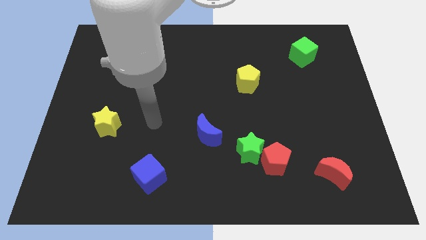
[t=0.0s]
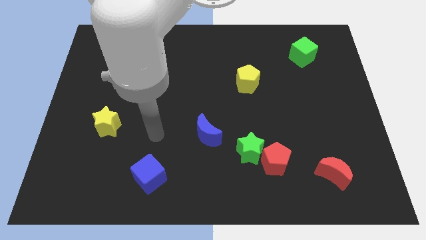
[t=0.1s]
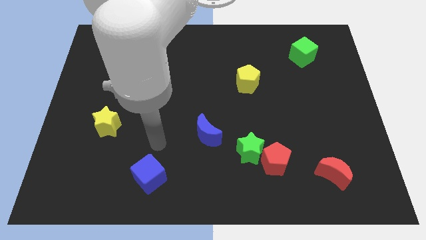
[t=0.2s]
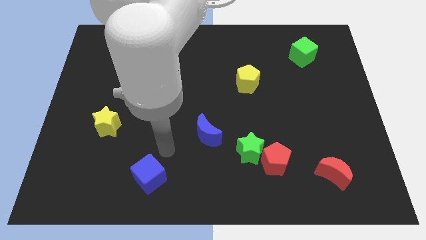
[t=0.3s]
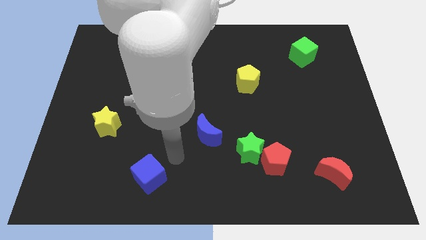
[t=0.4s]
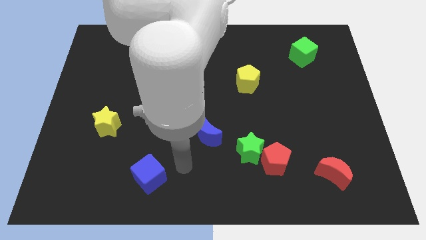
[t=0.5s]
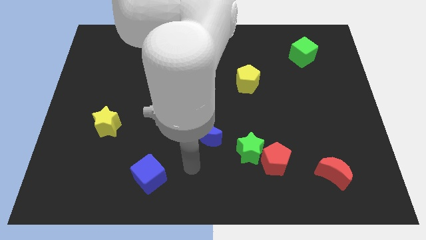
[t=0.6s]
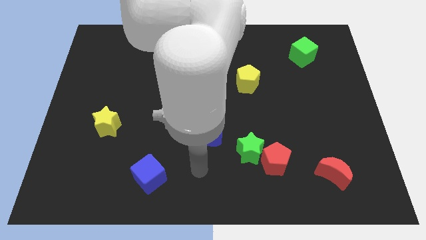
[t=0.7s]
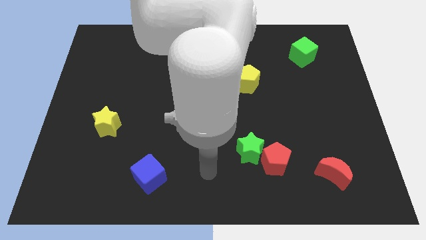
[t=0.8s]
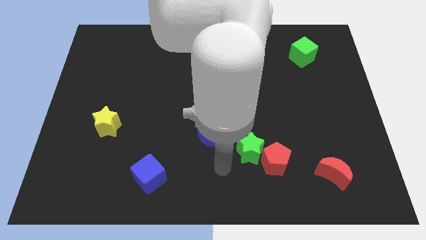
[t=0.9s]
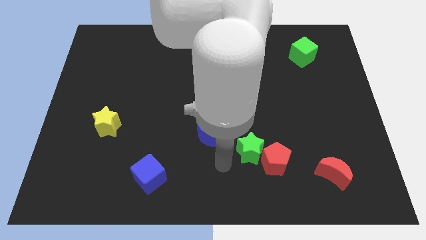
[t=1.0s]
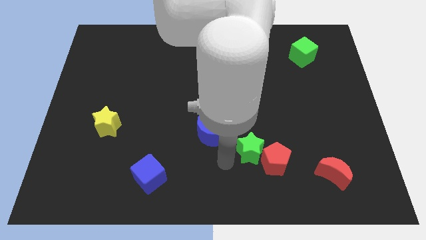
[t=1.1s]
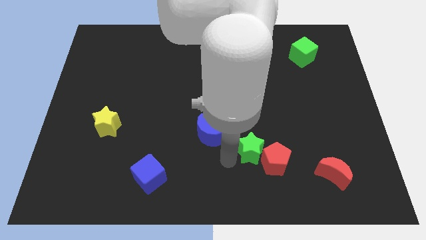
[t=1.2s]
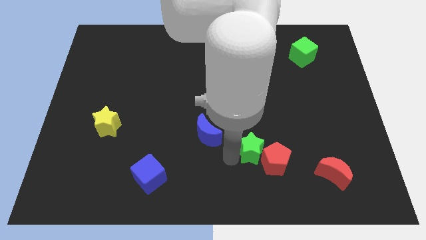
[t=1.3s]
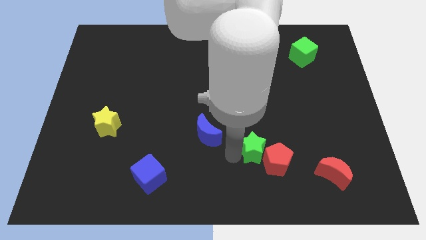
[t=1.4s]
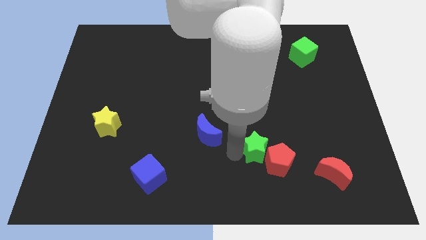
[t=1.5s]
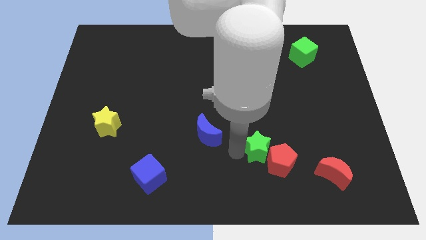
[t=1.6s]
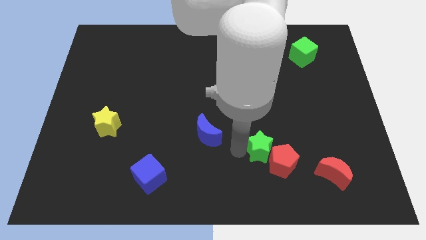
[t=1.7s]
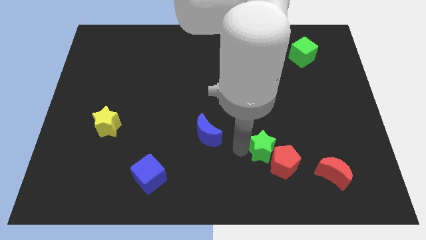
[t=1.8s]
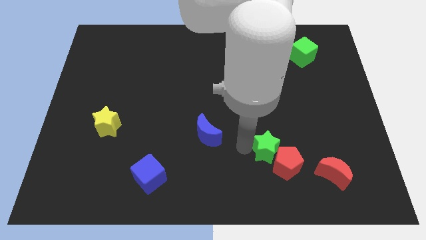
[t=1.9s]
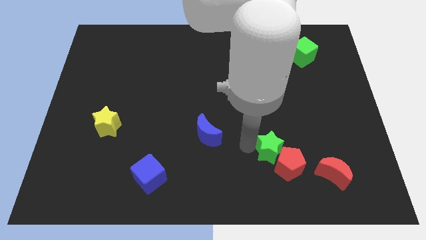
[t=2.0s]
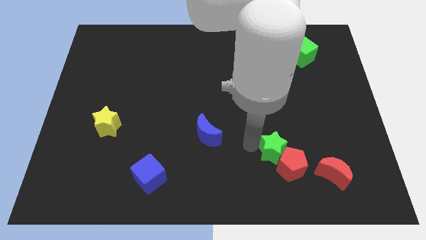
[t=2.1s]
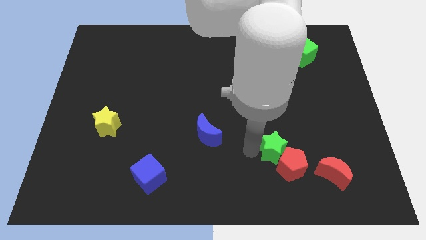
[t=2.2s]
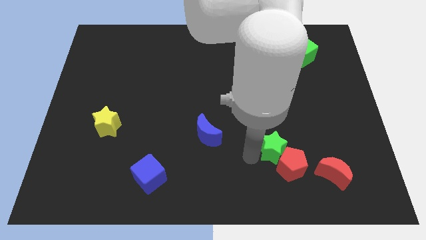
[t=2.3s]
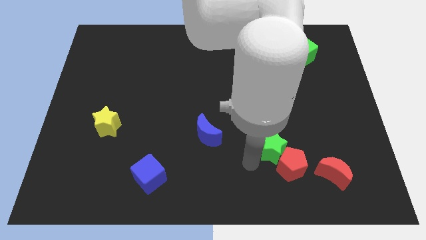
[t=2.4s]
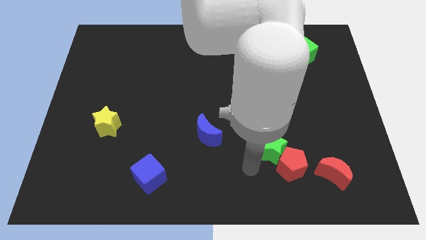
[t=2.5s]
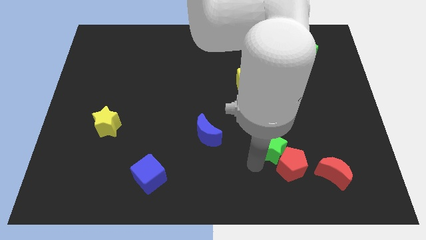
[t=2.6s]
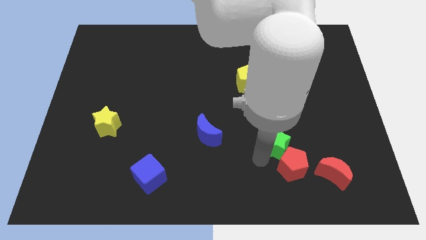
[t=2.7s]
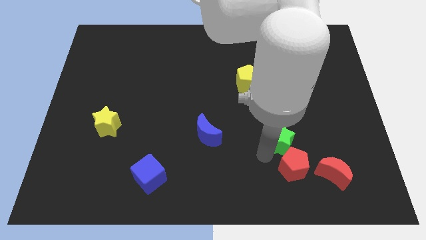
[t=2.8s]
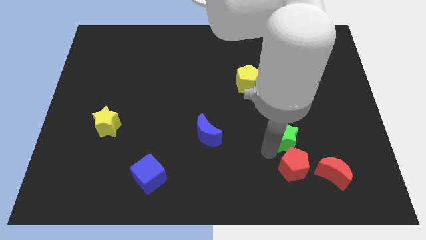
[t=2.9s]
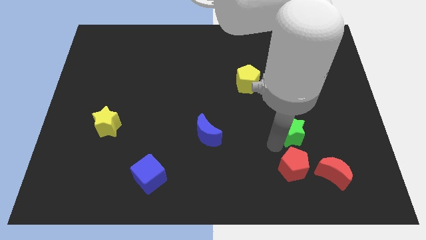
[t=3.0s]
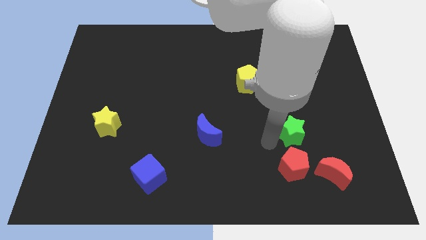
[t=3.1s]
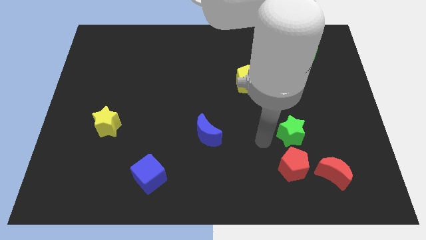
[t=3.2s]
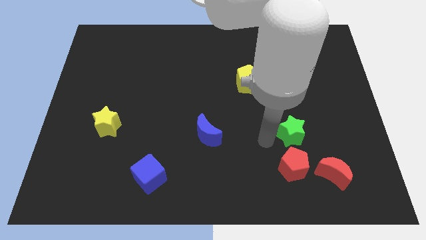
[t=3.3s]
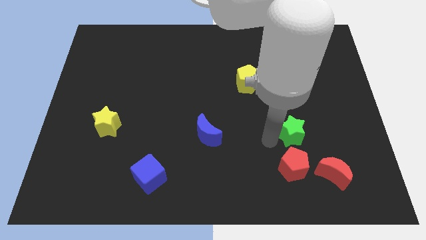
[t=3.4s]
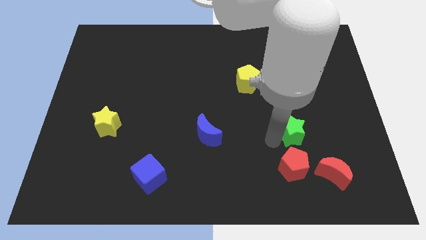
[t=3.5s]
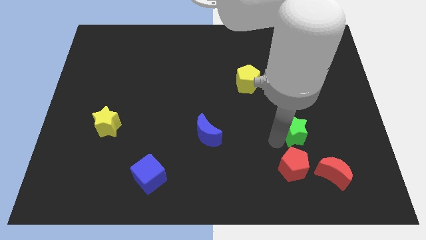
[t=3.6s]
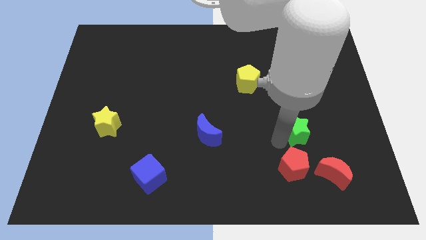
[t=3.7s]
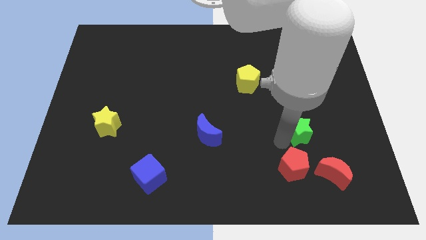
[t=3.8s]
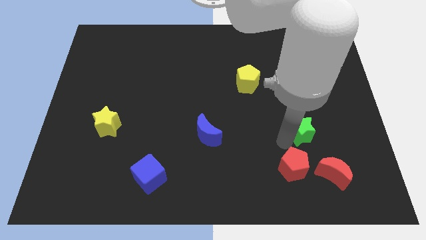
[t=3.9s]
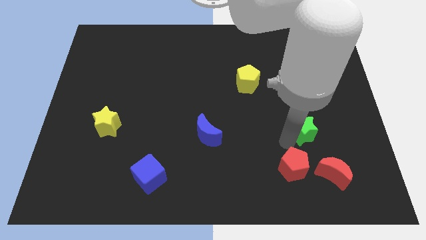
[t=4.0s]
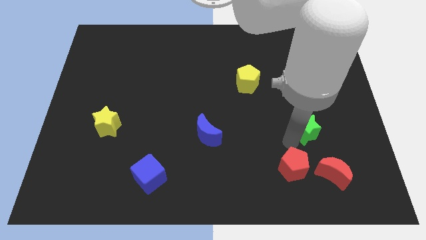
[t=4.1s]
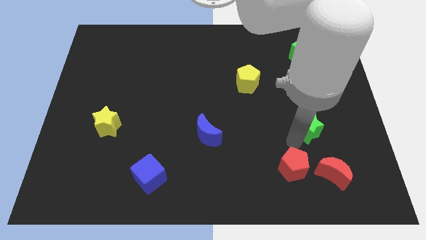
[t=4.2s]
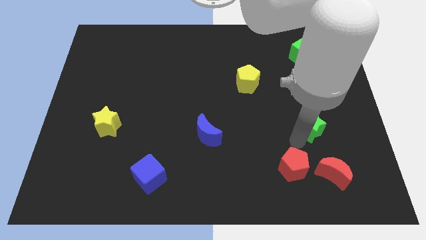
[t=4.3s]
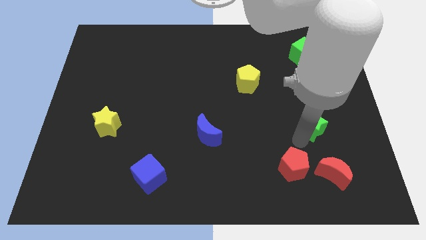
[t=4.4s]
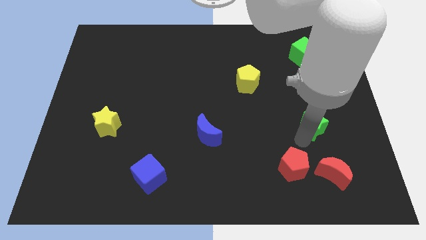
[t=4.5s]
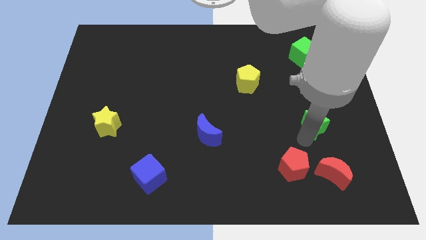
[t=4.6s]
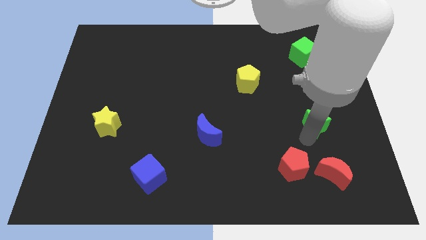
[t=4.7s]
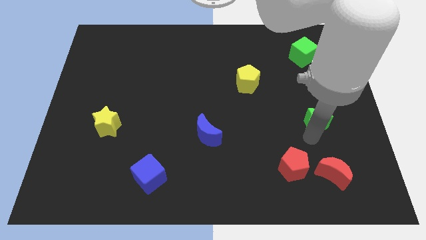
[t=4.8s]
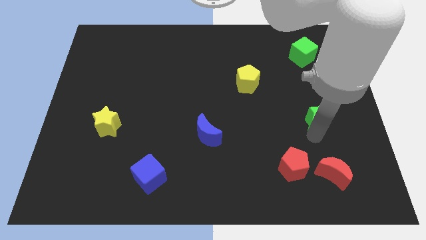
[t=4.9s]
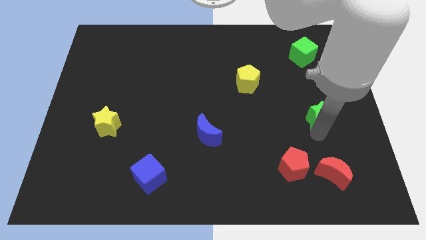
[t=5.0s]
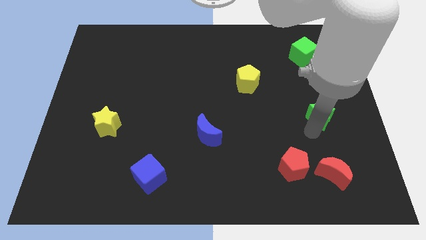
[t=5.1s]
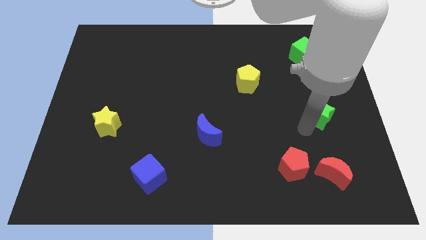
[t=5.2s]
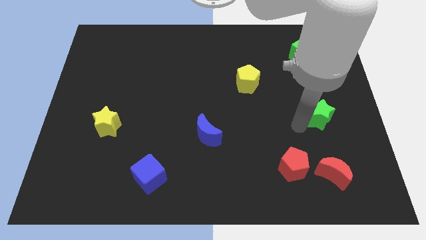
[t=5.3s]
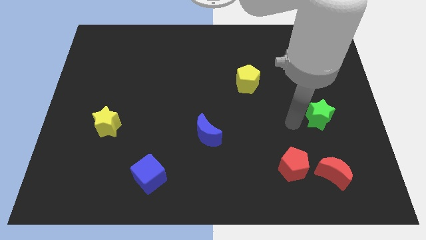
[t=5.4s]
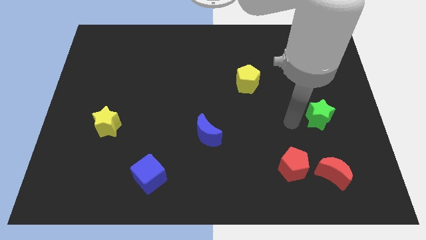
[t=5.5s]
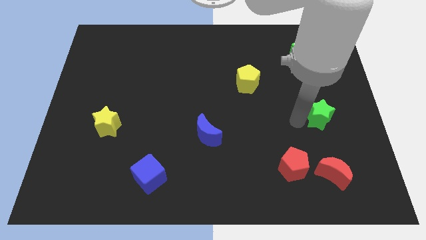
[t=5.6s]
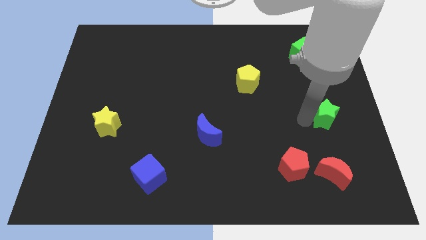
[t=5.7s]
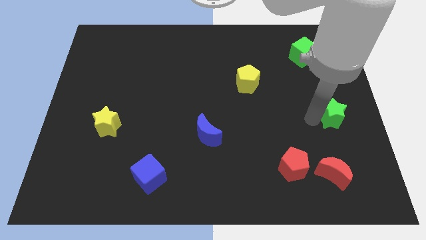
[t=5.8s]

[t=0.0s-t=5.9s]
move the green star to the right side of the board

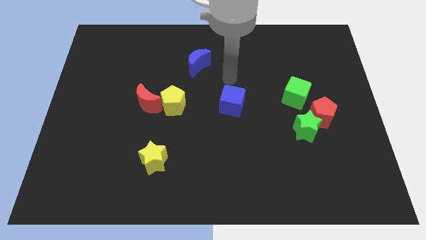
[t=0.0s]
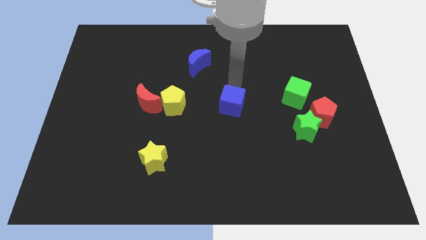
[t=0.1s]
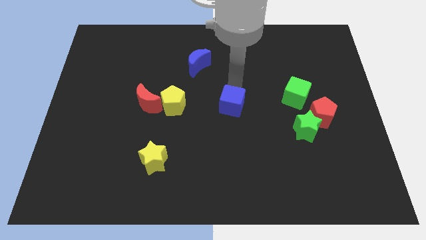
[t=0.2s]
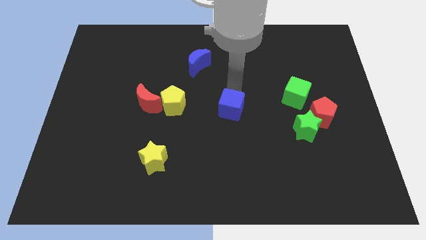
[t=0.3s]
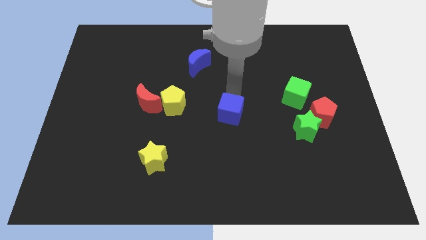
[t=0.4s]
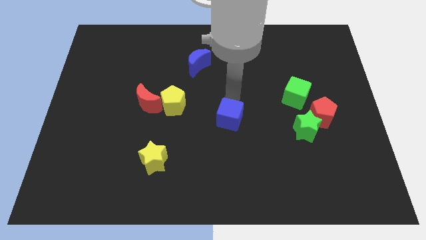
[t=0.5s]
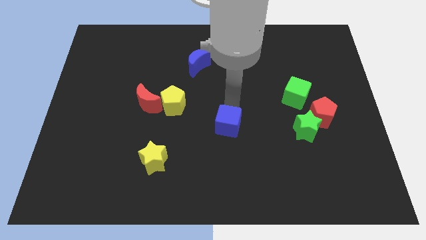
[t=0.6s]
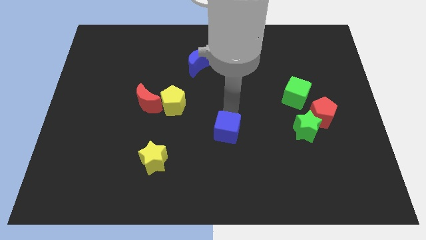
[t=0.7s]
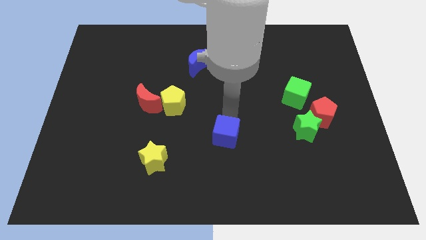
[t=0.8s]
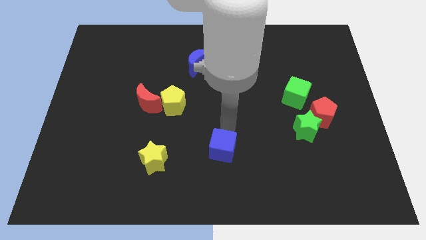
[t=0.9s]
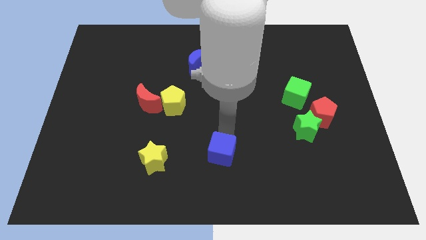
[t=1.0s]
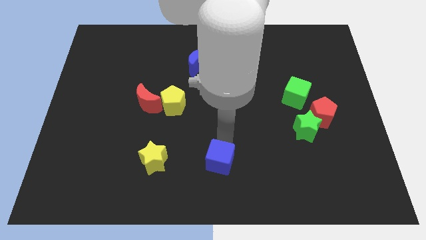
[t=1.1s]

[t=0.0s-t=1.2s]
move the blue cube to the bottom
